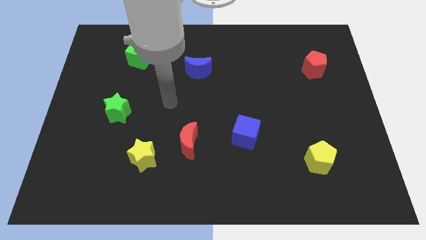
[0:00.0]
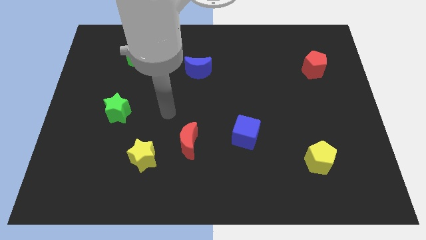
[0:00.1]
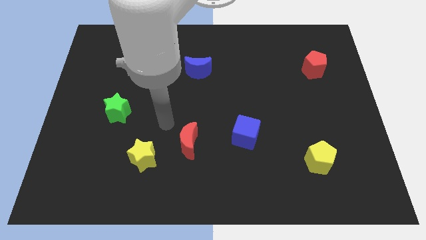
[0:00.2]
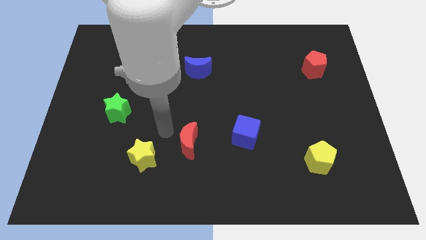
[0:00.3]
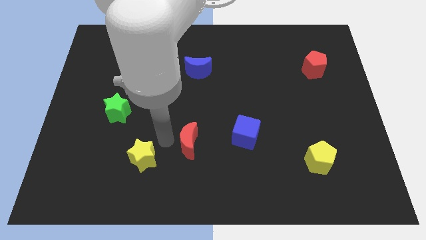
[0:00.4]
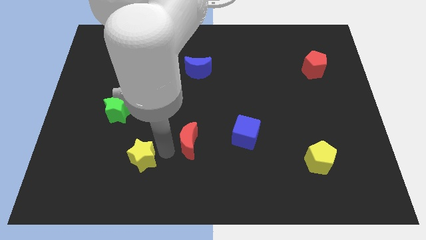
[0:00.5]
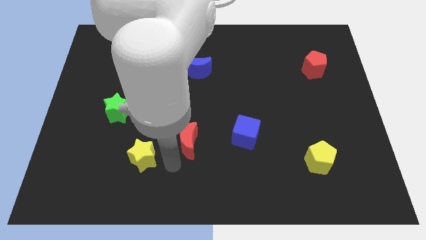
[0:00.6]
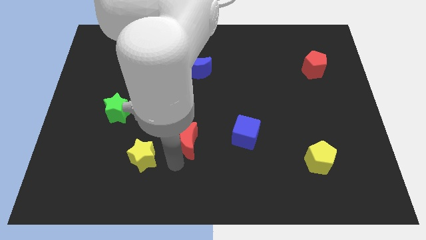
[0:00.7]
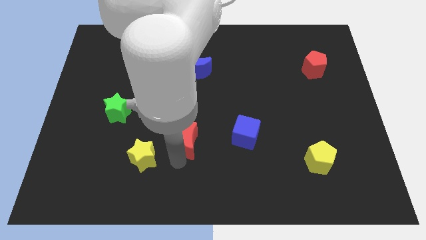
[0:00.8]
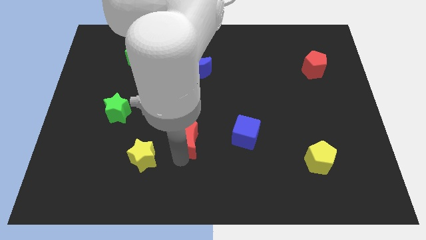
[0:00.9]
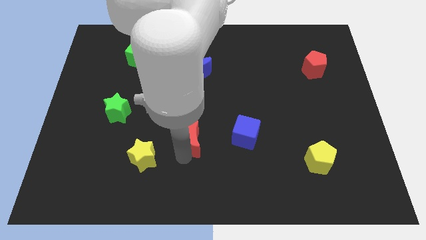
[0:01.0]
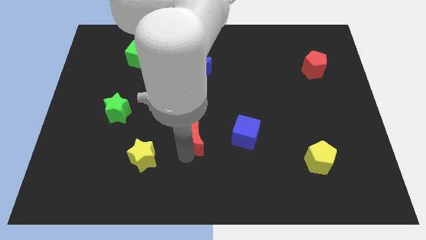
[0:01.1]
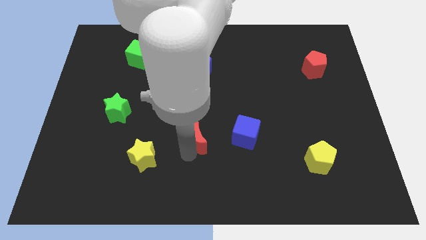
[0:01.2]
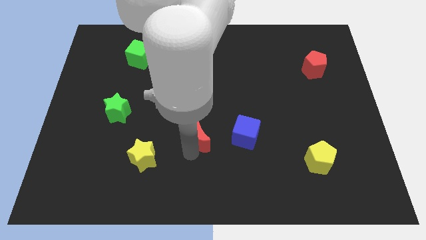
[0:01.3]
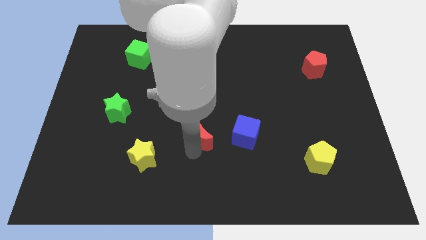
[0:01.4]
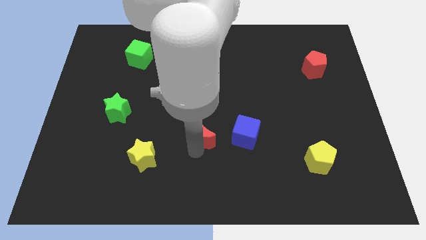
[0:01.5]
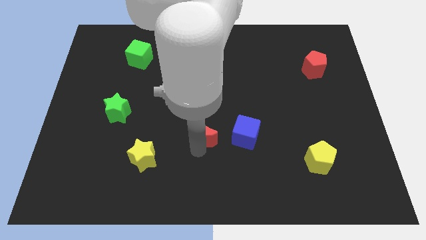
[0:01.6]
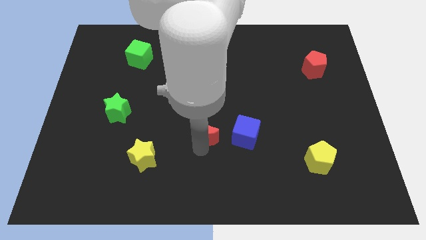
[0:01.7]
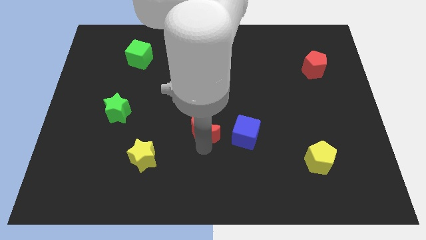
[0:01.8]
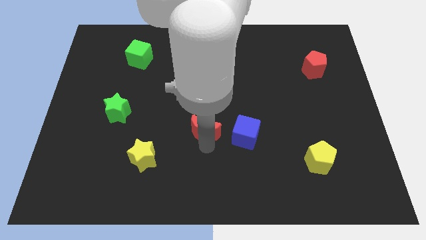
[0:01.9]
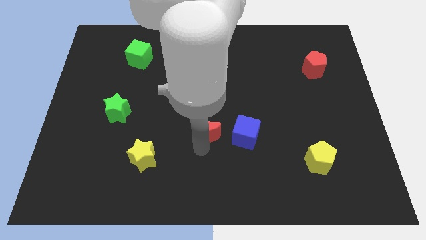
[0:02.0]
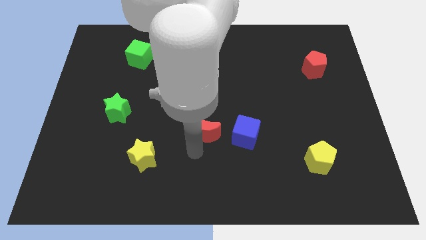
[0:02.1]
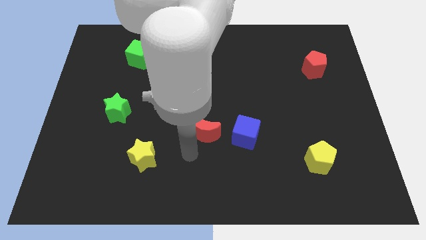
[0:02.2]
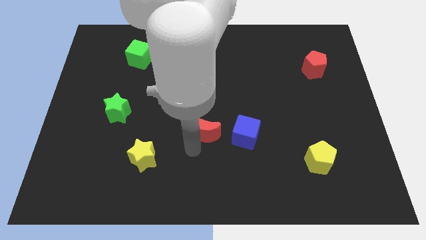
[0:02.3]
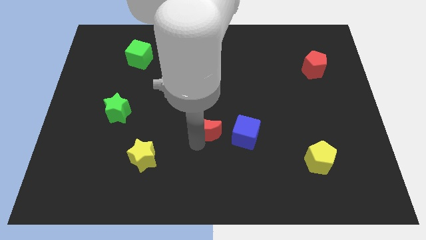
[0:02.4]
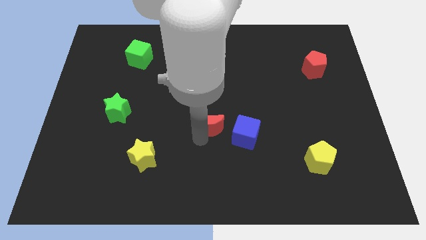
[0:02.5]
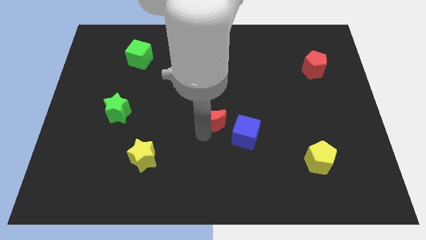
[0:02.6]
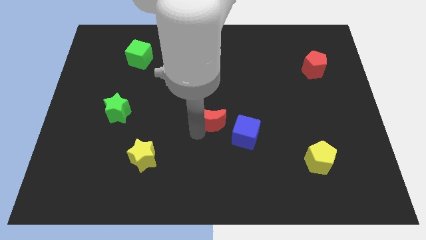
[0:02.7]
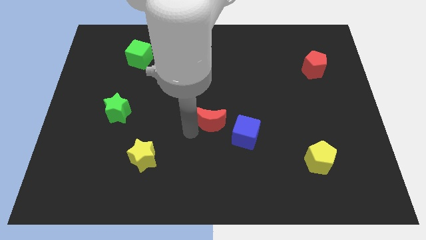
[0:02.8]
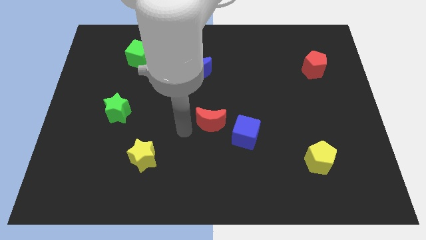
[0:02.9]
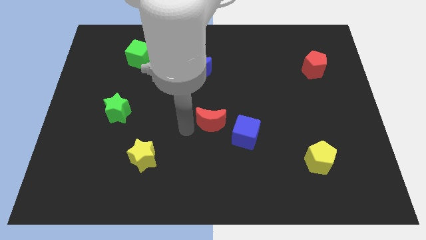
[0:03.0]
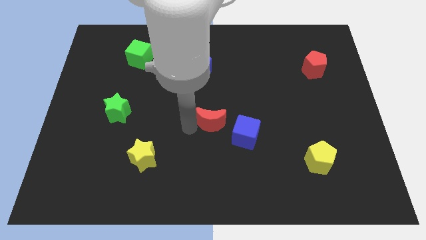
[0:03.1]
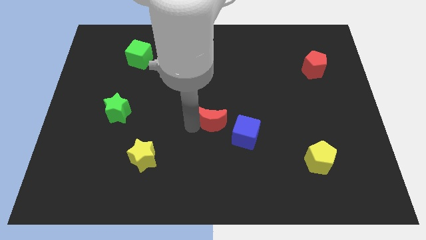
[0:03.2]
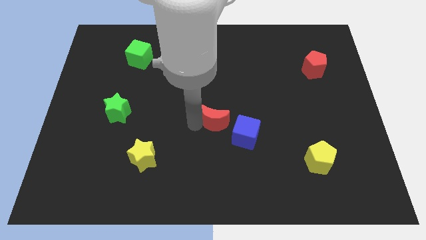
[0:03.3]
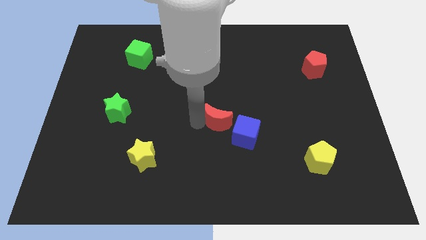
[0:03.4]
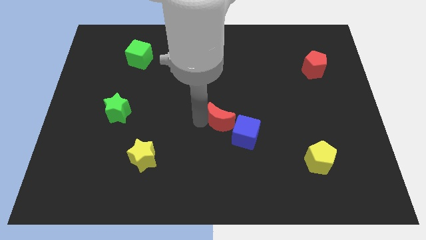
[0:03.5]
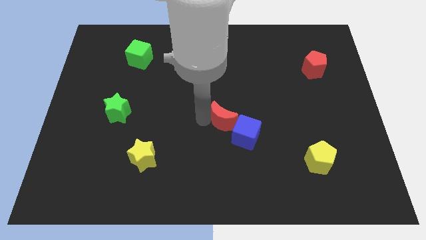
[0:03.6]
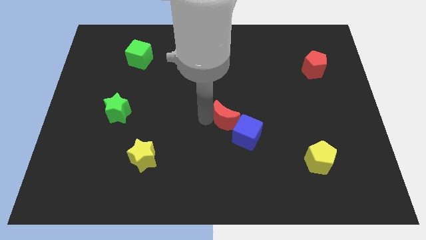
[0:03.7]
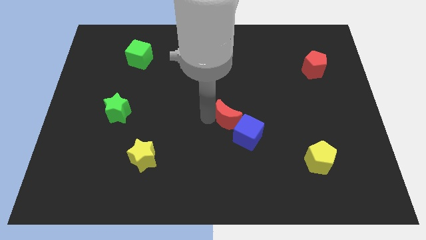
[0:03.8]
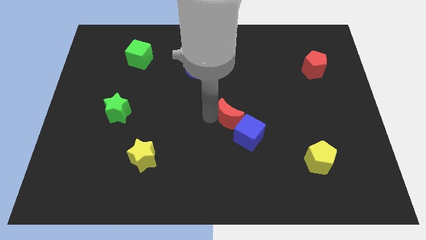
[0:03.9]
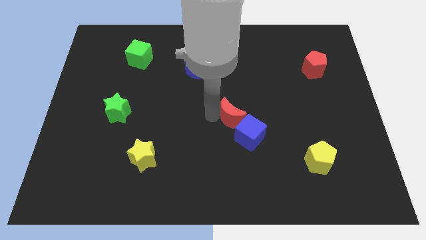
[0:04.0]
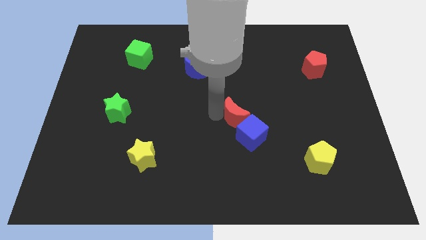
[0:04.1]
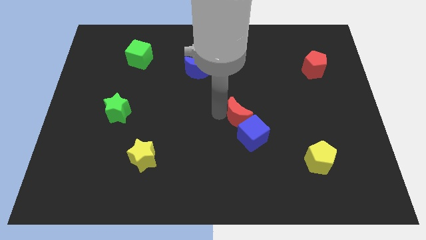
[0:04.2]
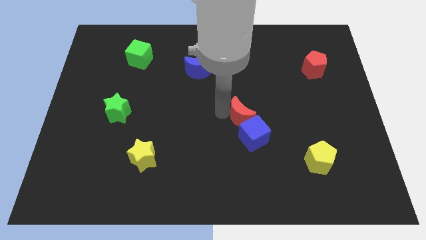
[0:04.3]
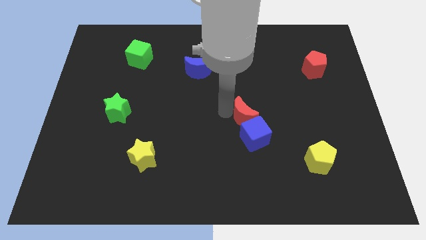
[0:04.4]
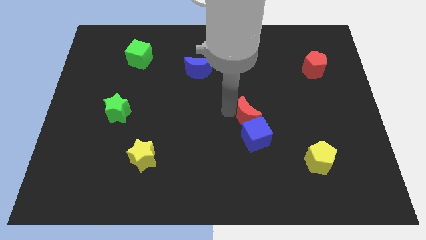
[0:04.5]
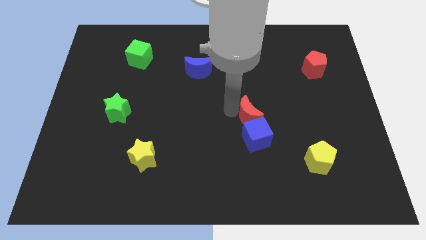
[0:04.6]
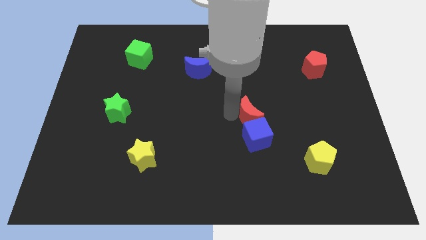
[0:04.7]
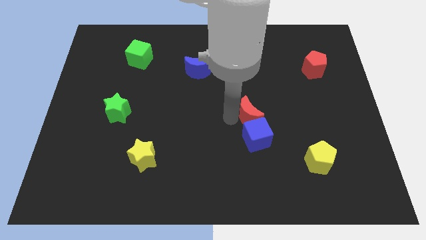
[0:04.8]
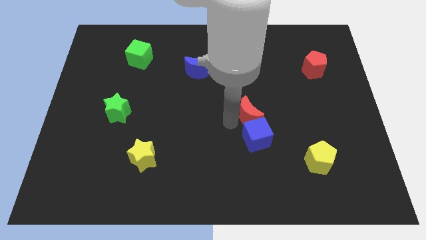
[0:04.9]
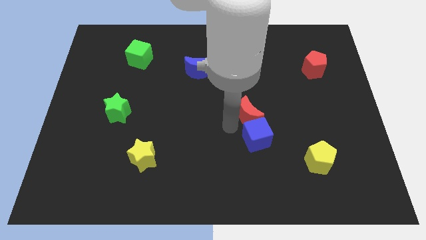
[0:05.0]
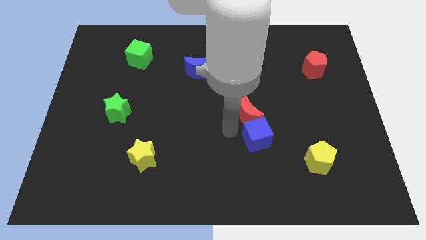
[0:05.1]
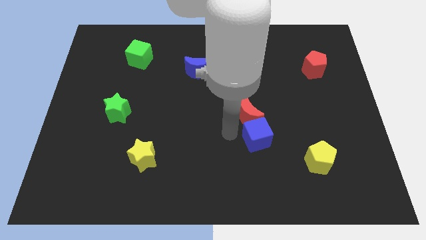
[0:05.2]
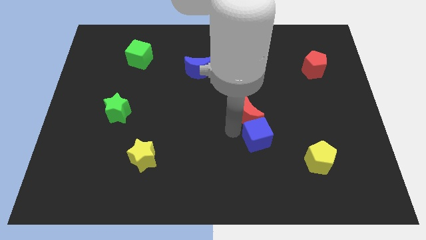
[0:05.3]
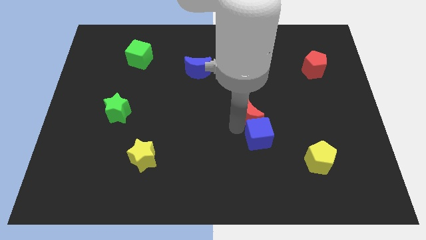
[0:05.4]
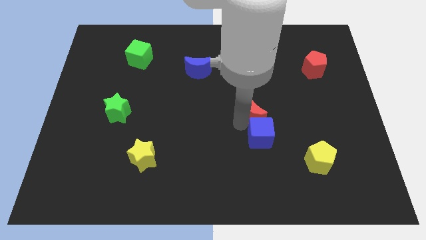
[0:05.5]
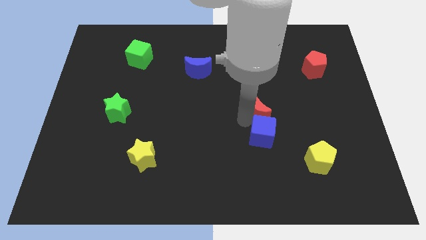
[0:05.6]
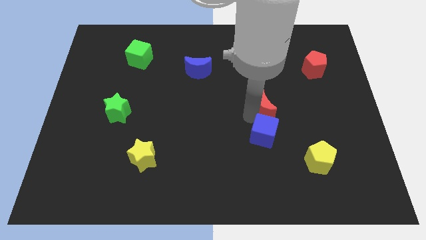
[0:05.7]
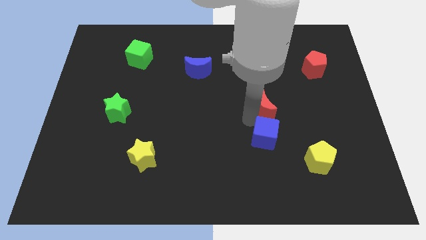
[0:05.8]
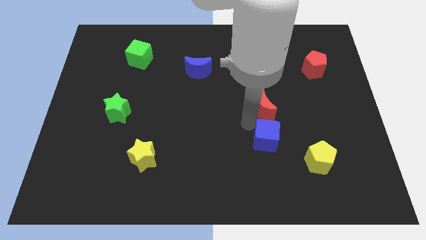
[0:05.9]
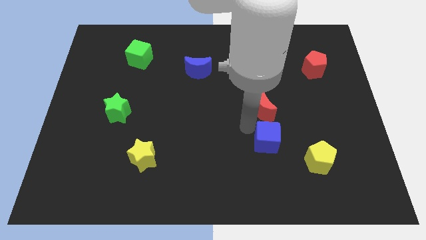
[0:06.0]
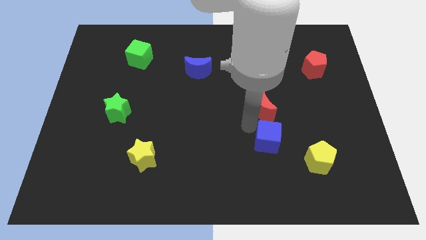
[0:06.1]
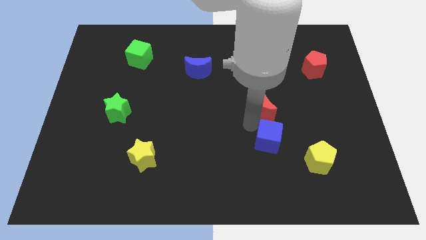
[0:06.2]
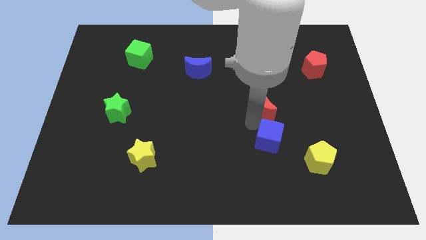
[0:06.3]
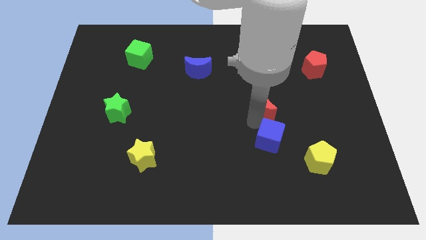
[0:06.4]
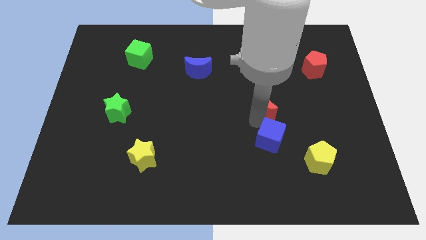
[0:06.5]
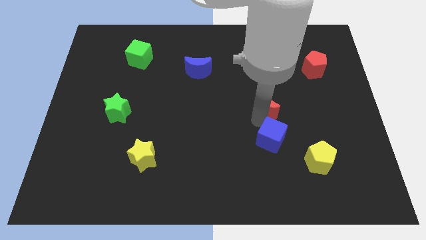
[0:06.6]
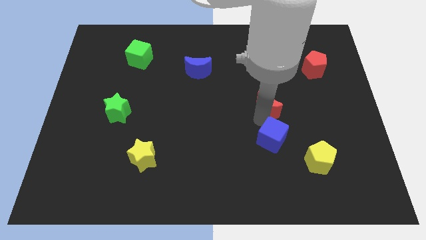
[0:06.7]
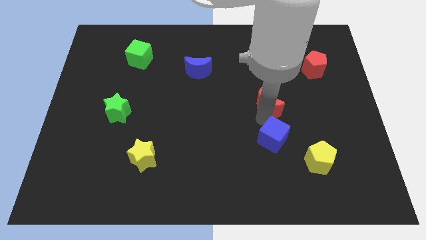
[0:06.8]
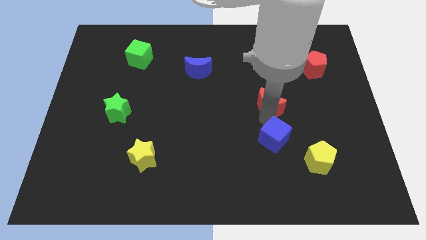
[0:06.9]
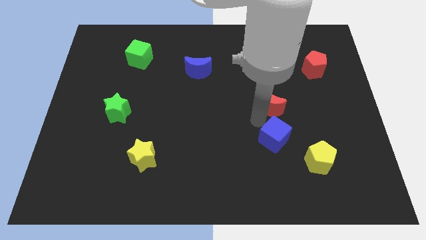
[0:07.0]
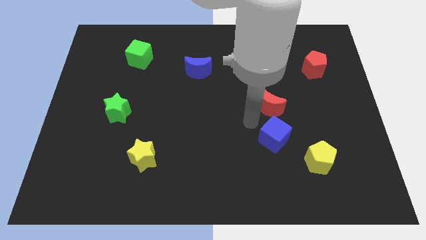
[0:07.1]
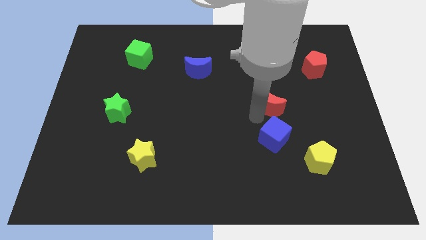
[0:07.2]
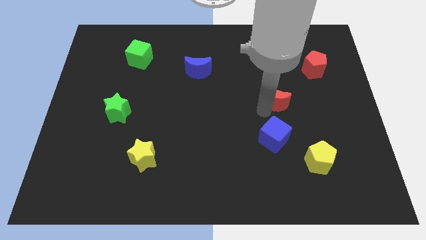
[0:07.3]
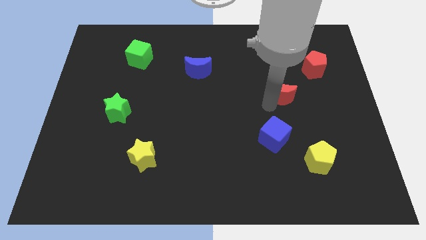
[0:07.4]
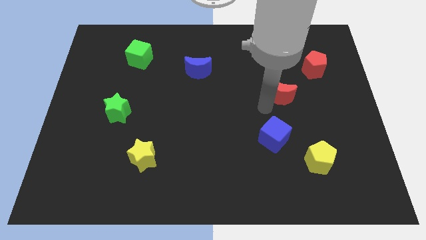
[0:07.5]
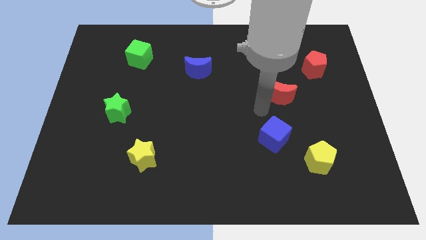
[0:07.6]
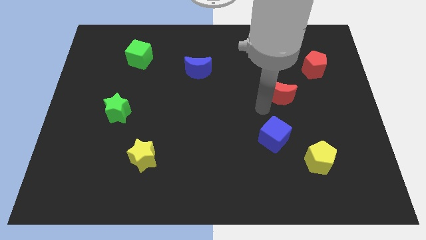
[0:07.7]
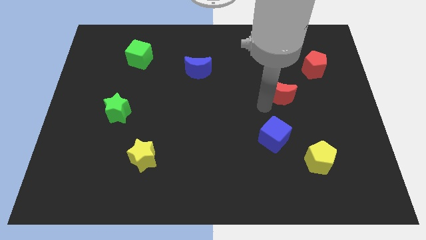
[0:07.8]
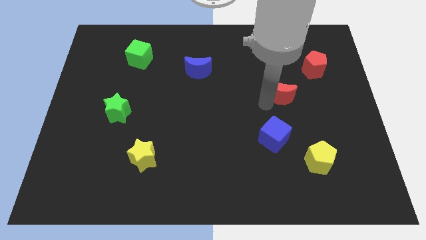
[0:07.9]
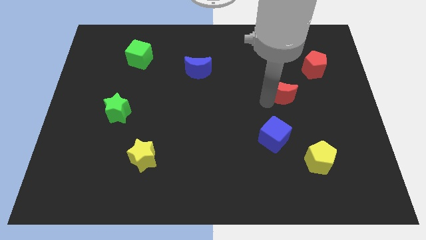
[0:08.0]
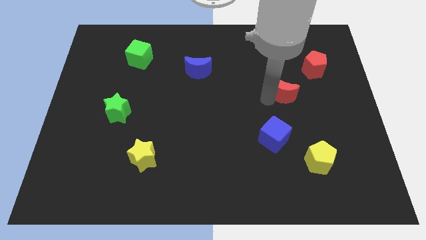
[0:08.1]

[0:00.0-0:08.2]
slide the red moon diagonally down and to the left of the red pentagon
